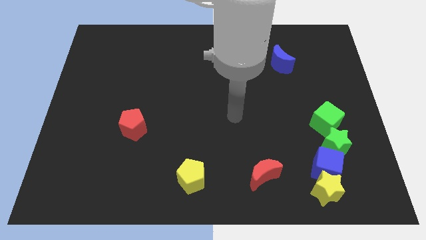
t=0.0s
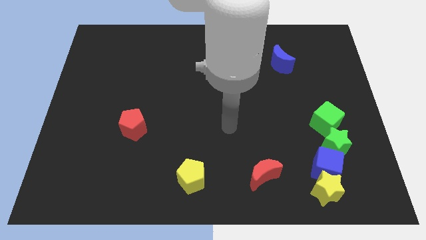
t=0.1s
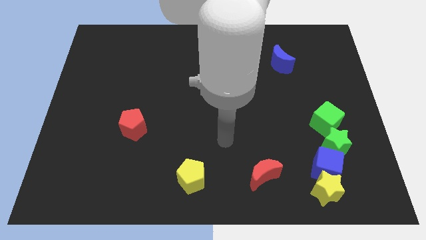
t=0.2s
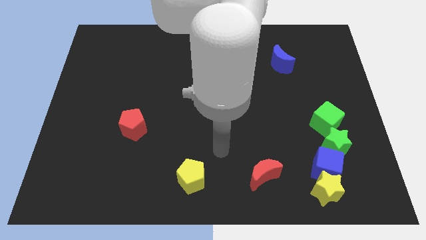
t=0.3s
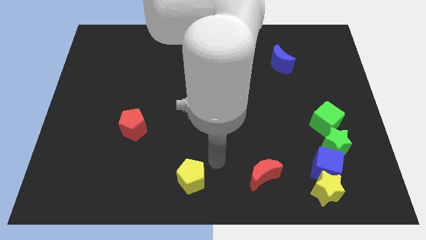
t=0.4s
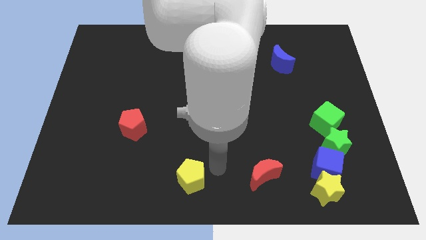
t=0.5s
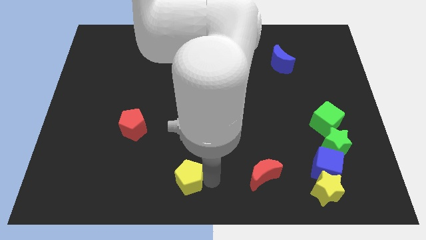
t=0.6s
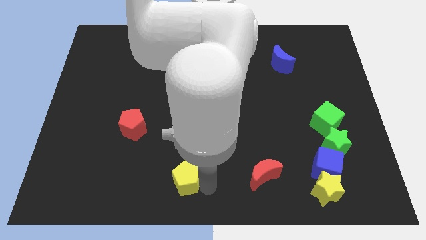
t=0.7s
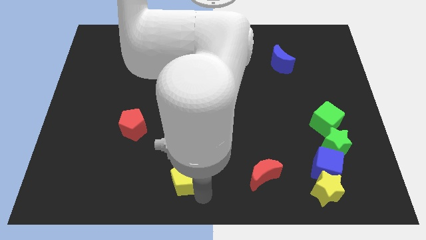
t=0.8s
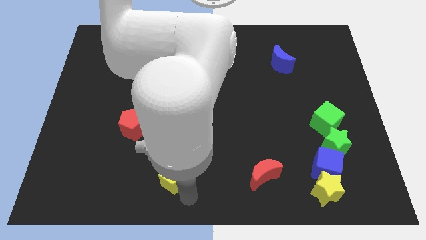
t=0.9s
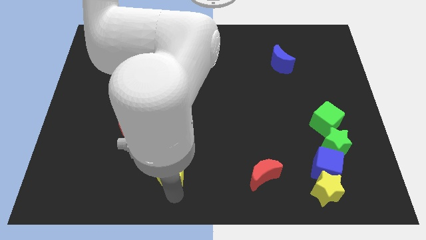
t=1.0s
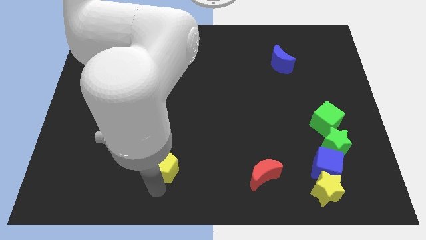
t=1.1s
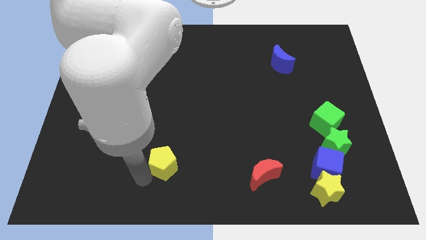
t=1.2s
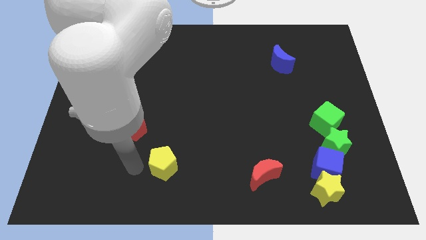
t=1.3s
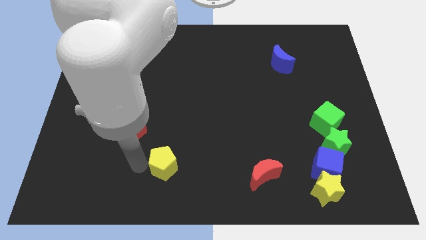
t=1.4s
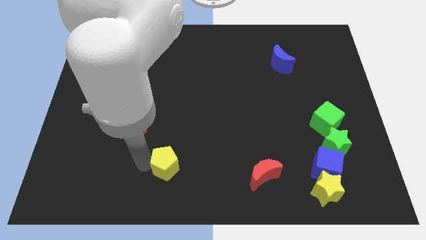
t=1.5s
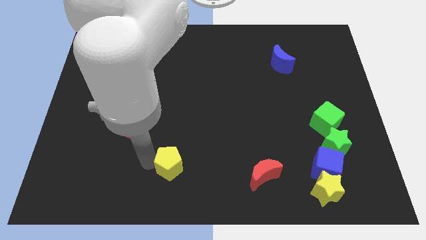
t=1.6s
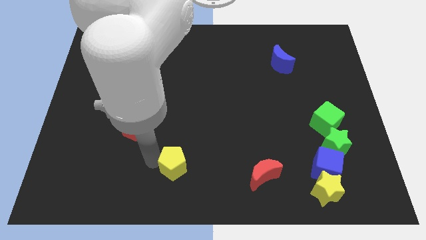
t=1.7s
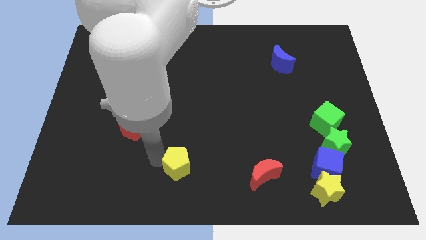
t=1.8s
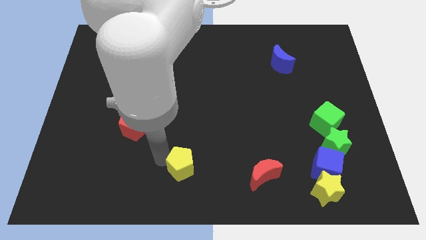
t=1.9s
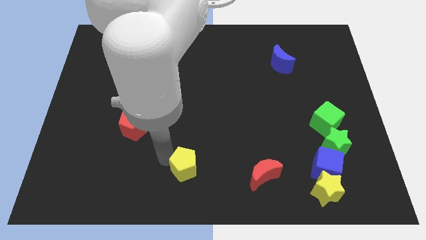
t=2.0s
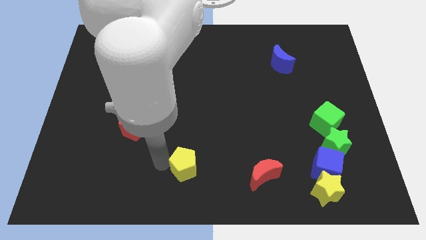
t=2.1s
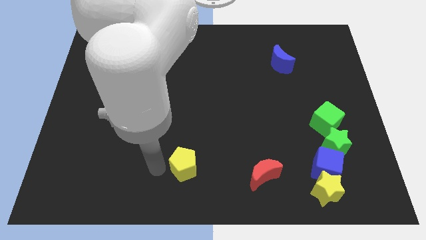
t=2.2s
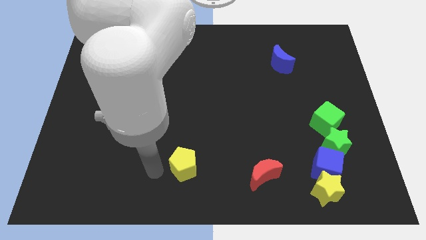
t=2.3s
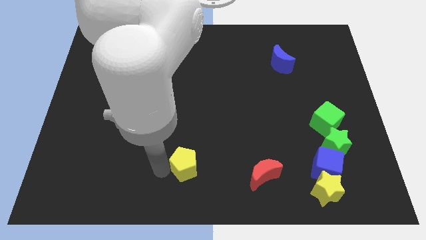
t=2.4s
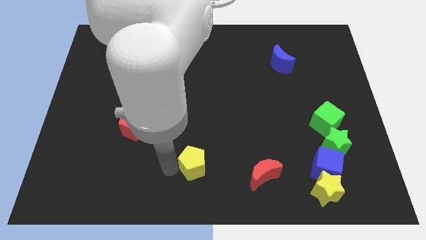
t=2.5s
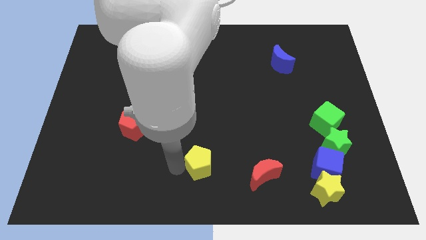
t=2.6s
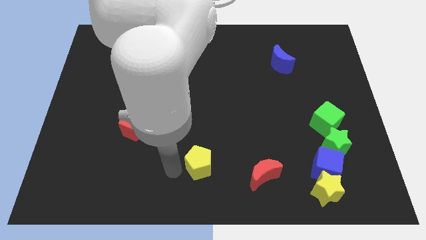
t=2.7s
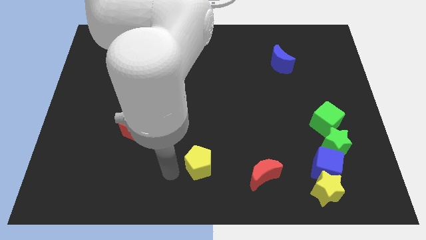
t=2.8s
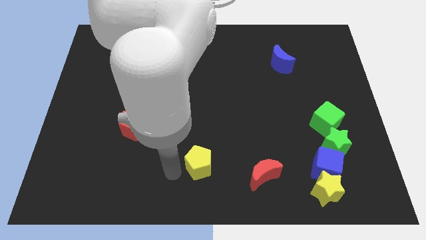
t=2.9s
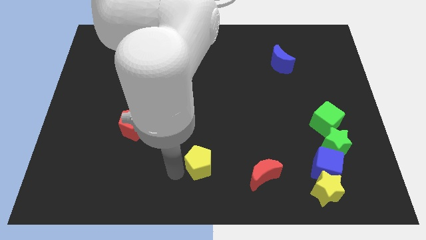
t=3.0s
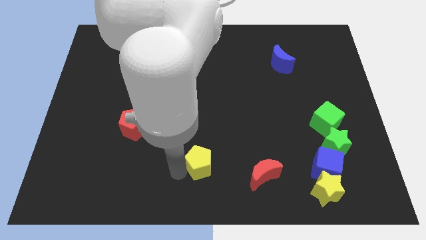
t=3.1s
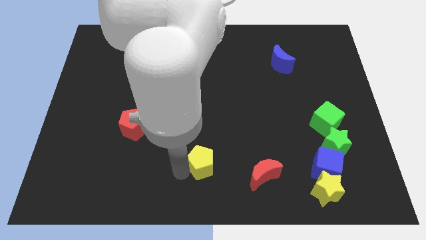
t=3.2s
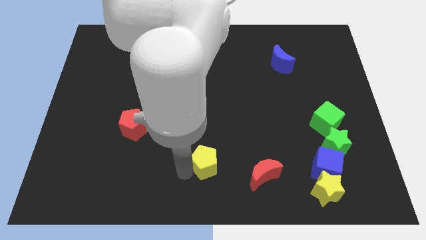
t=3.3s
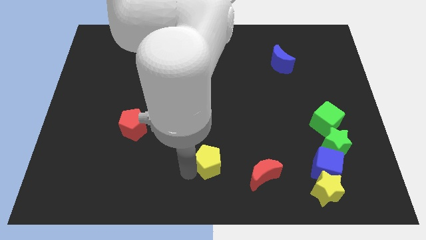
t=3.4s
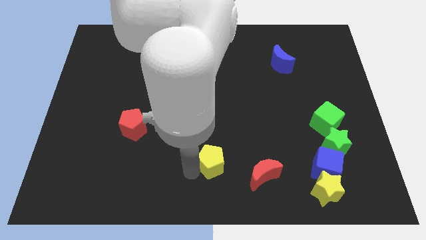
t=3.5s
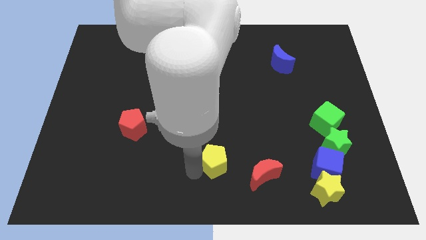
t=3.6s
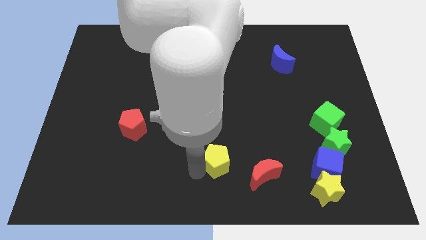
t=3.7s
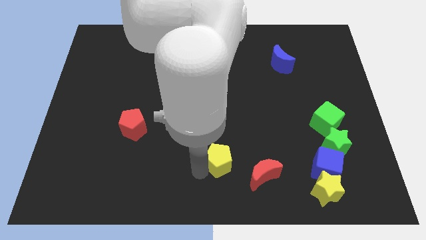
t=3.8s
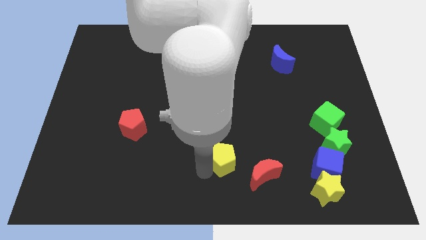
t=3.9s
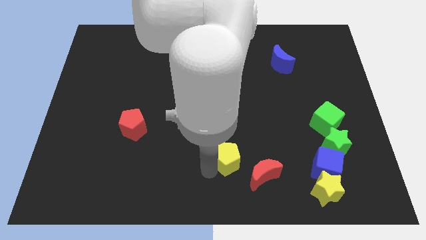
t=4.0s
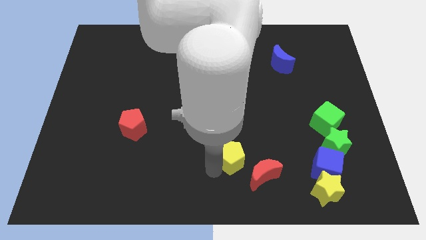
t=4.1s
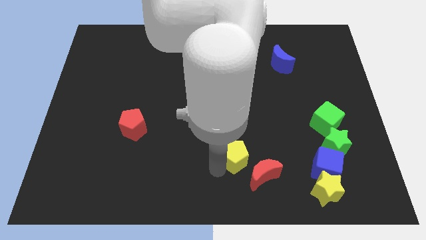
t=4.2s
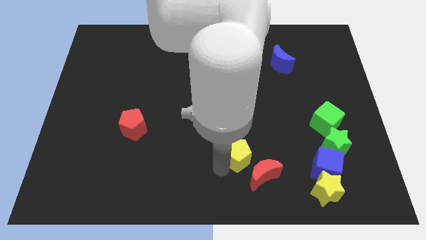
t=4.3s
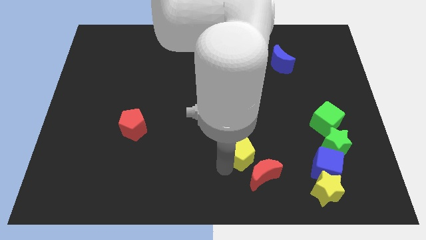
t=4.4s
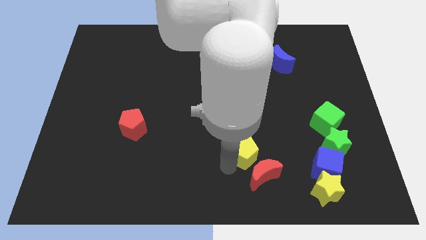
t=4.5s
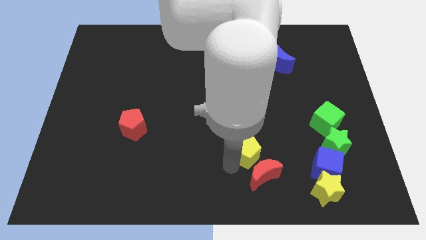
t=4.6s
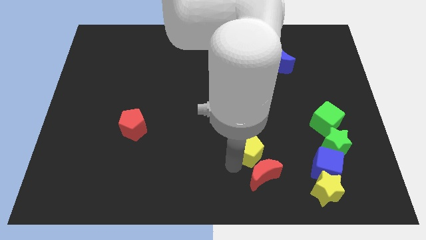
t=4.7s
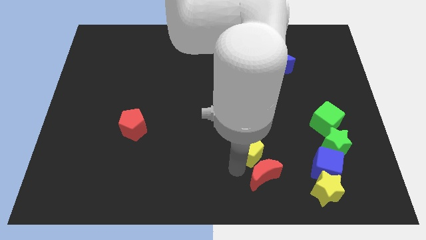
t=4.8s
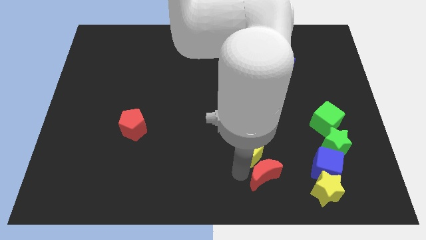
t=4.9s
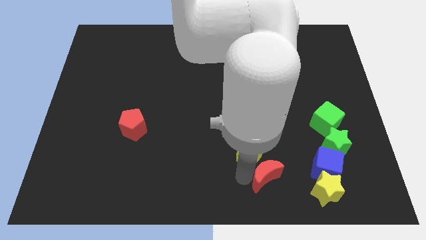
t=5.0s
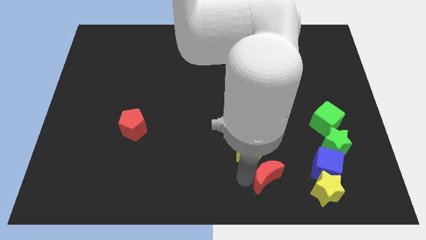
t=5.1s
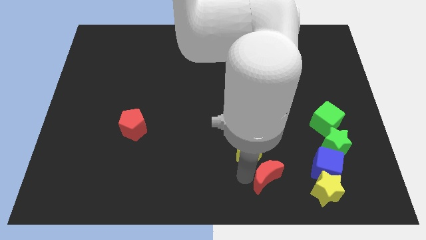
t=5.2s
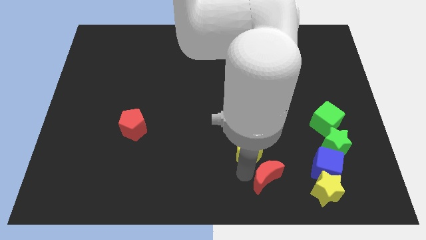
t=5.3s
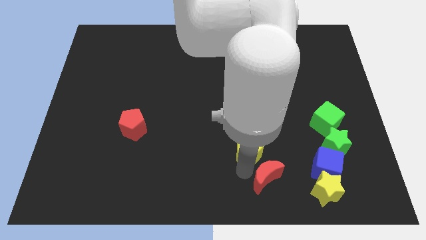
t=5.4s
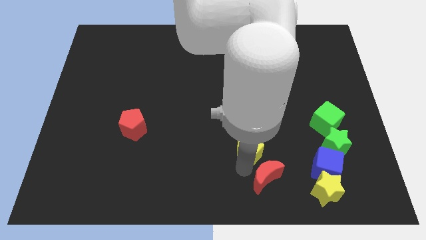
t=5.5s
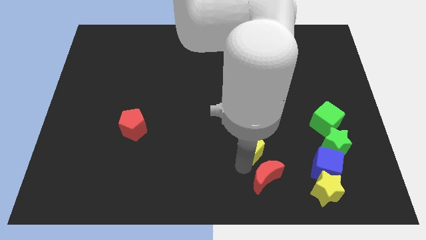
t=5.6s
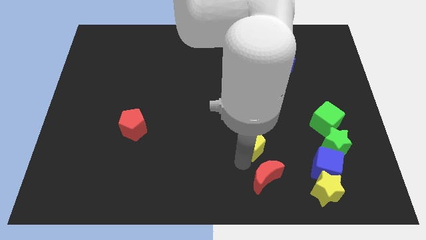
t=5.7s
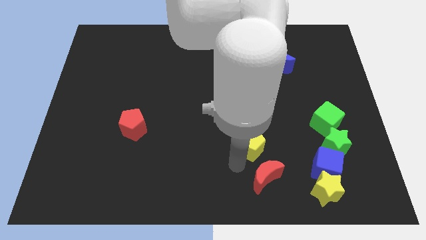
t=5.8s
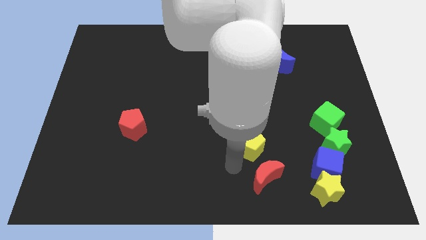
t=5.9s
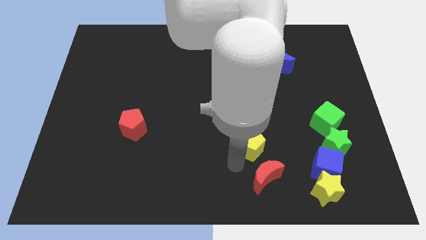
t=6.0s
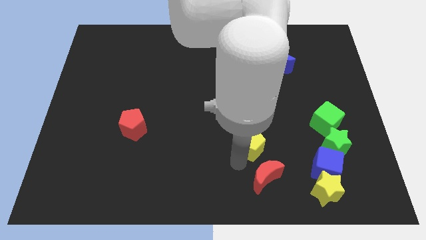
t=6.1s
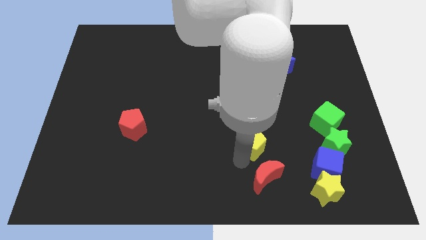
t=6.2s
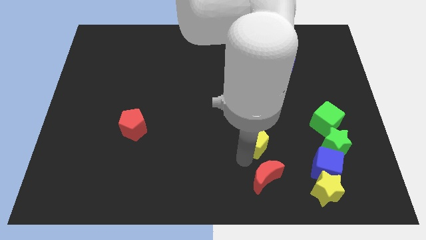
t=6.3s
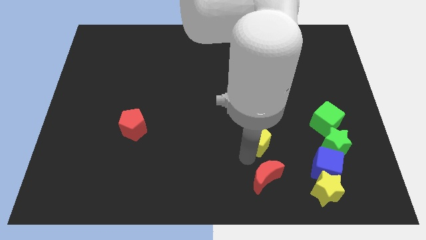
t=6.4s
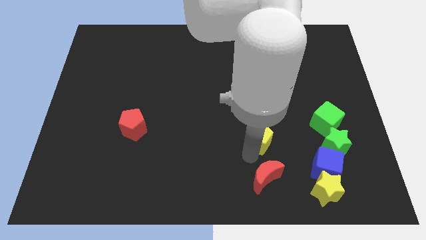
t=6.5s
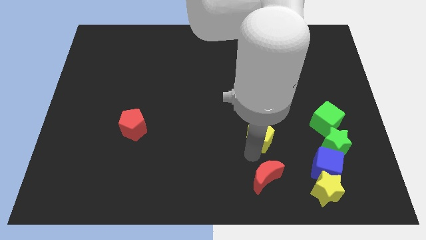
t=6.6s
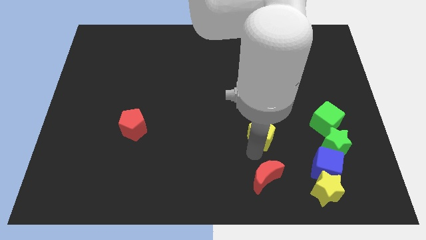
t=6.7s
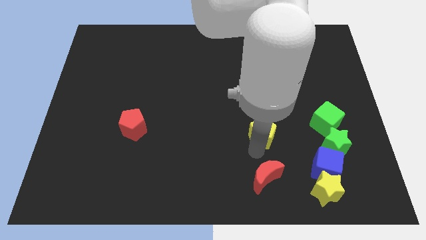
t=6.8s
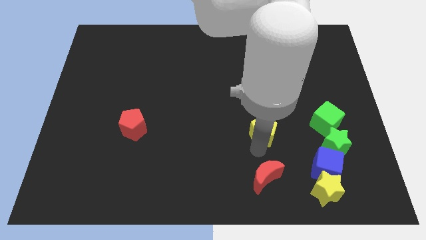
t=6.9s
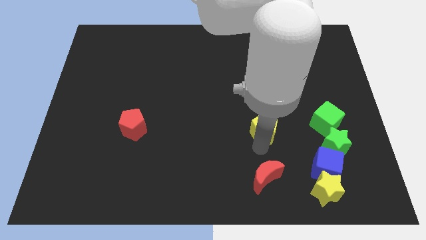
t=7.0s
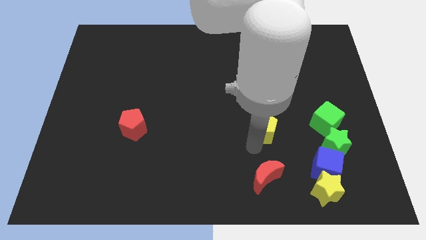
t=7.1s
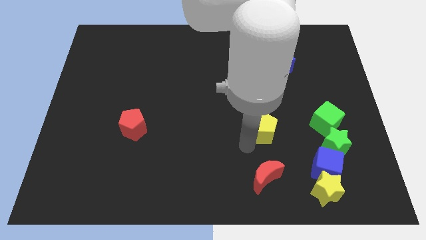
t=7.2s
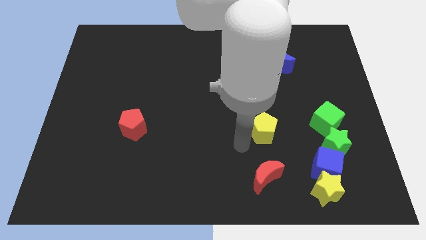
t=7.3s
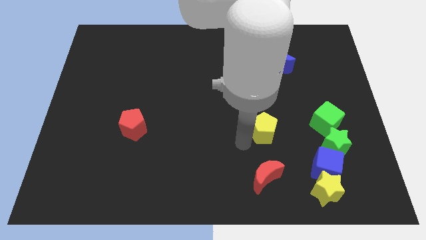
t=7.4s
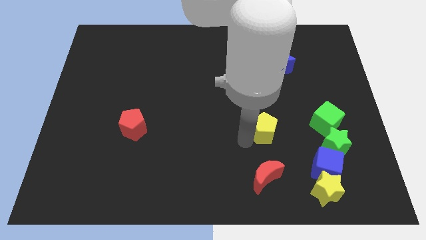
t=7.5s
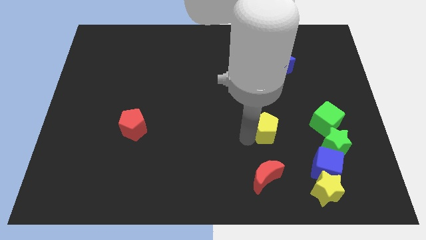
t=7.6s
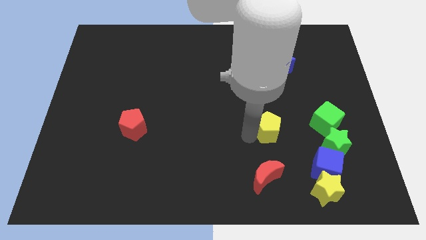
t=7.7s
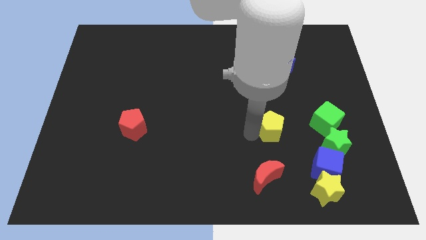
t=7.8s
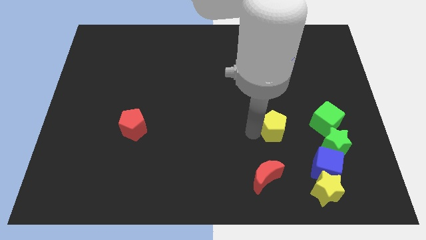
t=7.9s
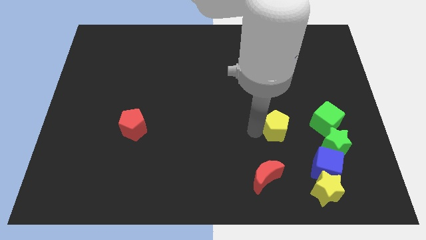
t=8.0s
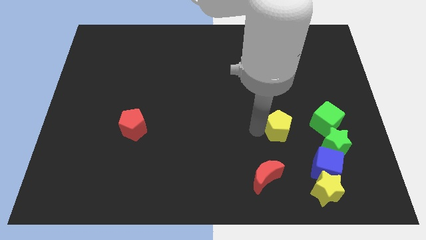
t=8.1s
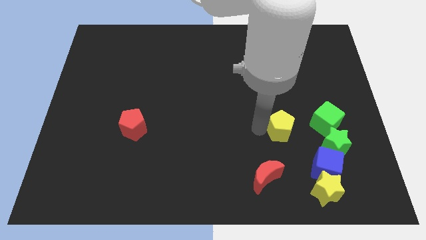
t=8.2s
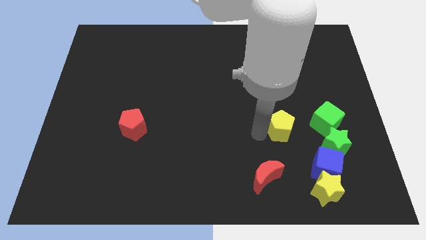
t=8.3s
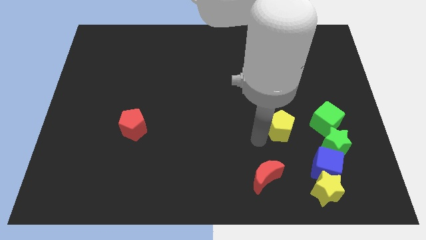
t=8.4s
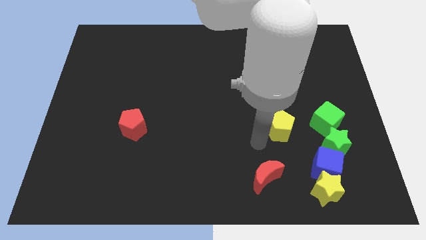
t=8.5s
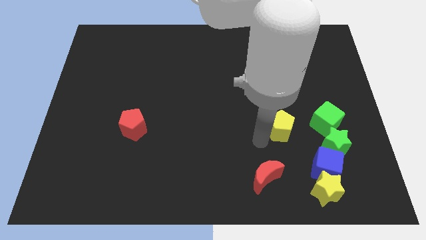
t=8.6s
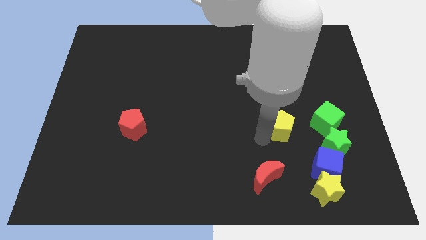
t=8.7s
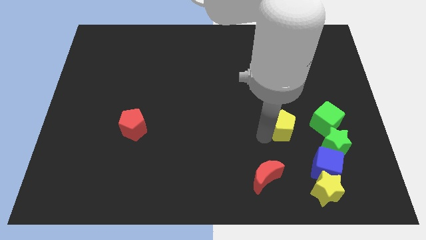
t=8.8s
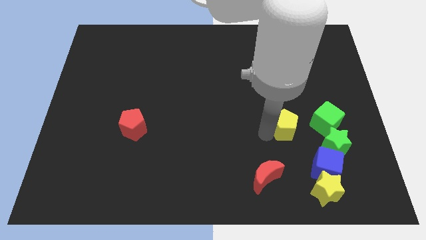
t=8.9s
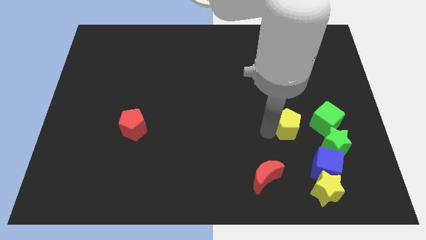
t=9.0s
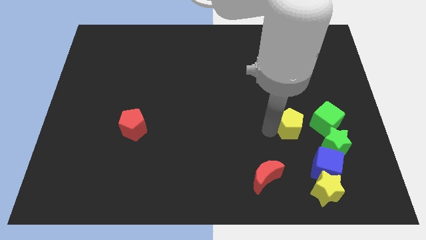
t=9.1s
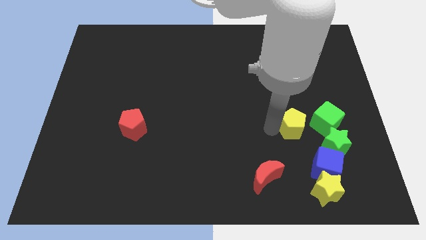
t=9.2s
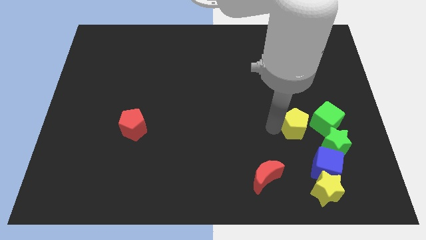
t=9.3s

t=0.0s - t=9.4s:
put the yellow pentagon above the blue cube
